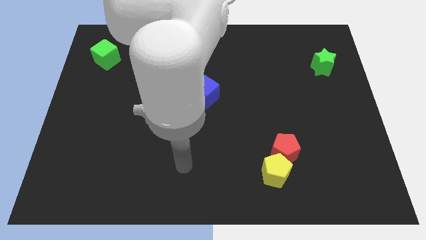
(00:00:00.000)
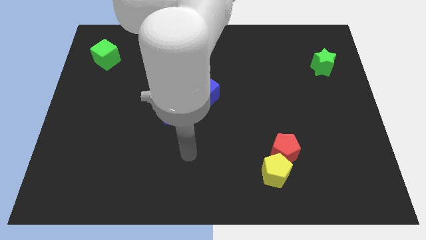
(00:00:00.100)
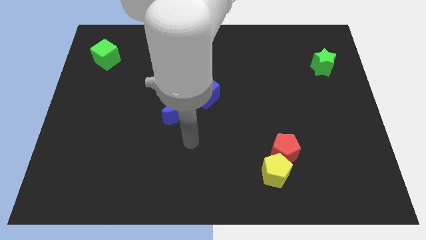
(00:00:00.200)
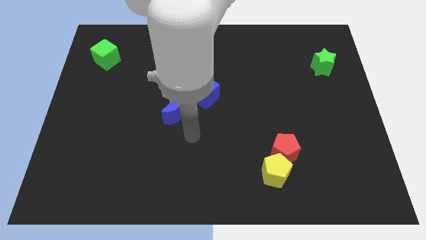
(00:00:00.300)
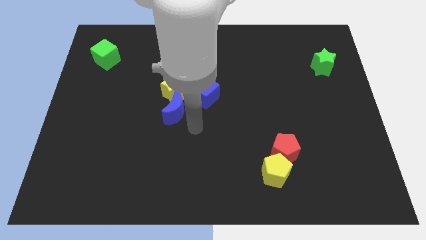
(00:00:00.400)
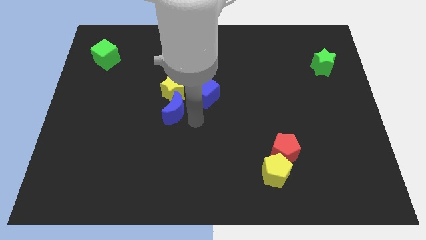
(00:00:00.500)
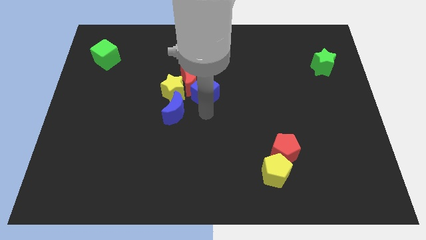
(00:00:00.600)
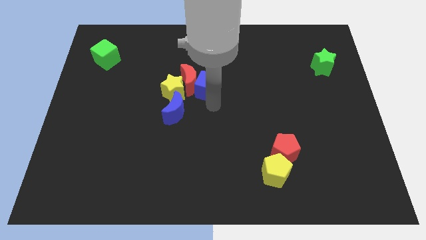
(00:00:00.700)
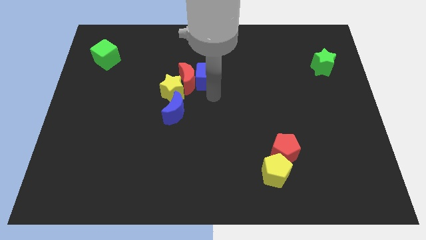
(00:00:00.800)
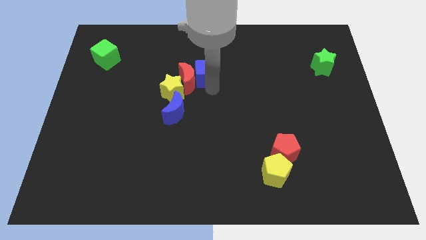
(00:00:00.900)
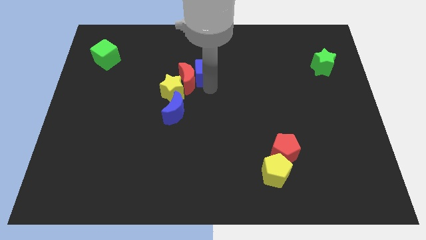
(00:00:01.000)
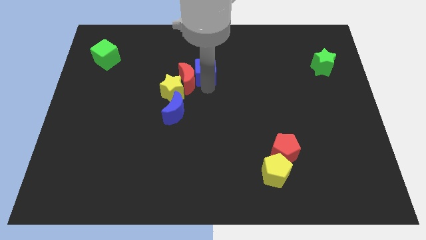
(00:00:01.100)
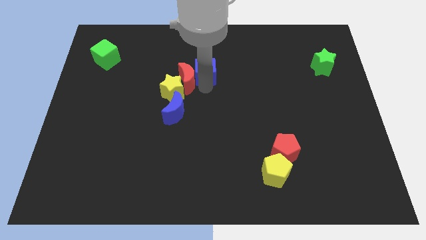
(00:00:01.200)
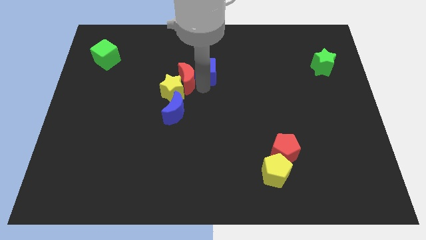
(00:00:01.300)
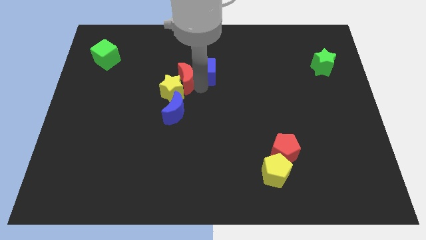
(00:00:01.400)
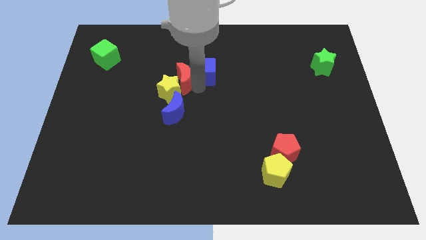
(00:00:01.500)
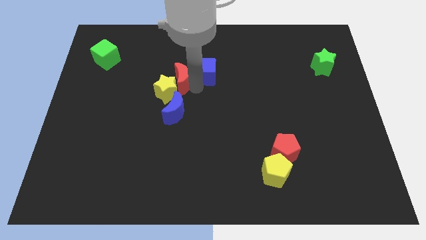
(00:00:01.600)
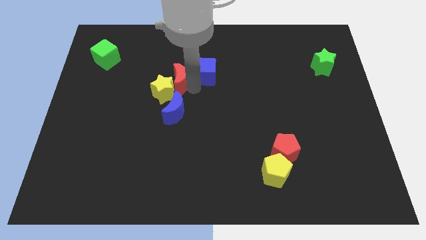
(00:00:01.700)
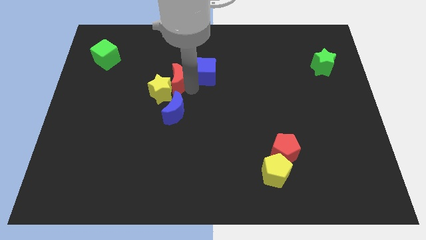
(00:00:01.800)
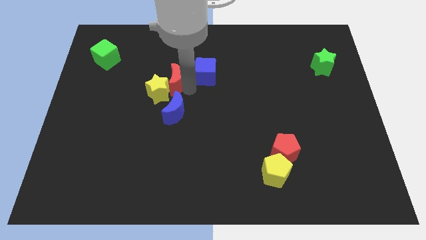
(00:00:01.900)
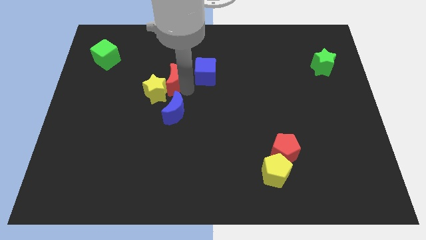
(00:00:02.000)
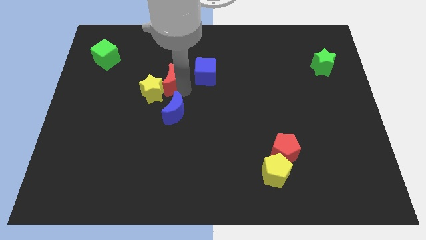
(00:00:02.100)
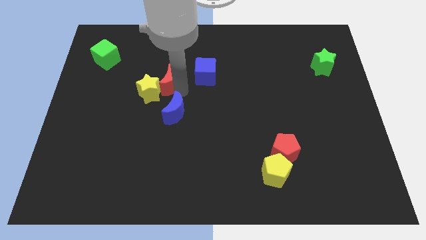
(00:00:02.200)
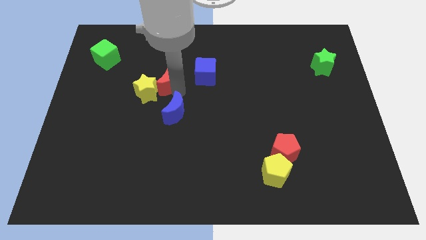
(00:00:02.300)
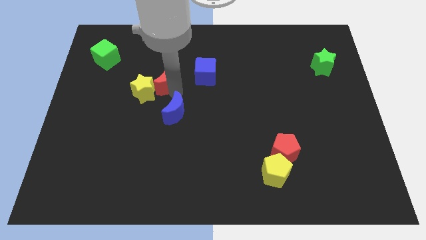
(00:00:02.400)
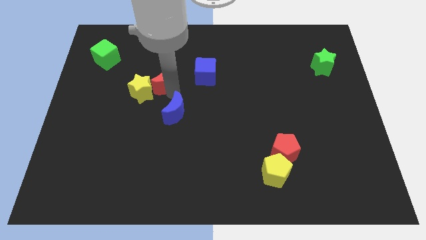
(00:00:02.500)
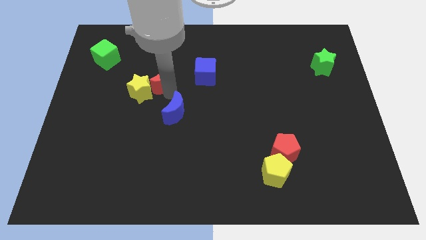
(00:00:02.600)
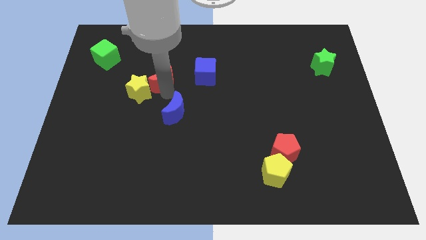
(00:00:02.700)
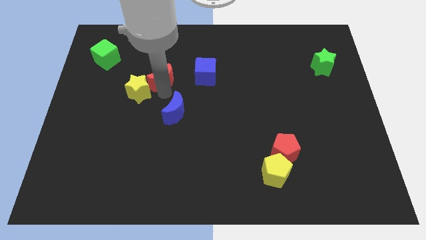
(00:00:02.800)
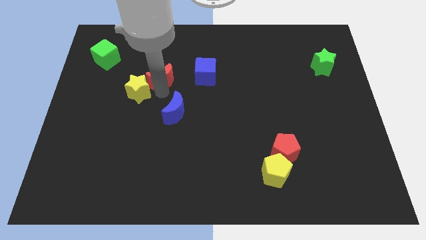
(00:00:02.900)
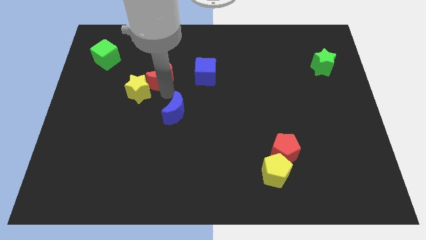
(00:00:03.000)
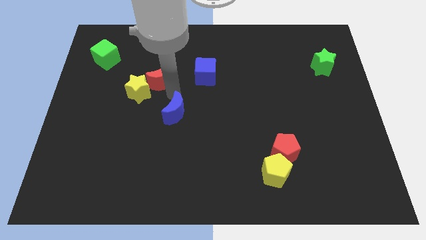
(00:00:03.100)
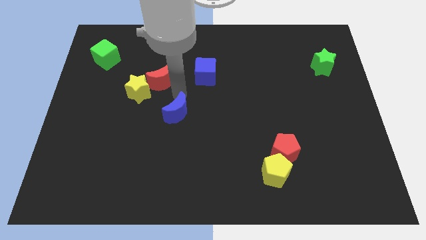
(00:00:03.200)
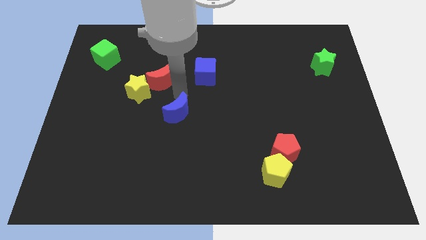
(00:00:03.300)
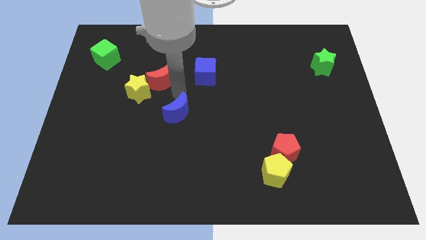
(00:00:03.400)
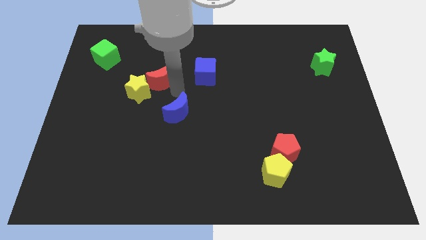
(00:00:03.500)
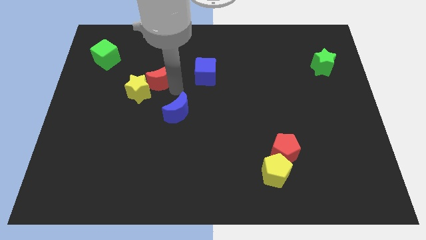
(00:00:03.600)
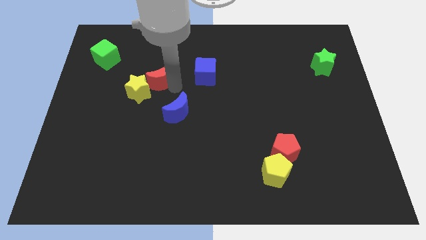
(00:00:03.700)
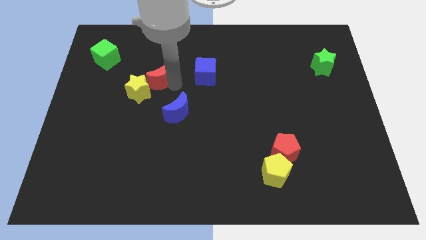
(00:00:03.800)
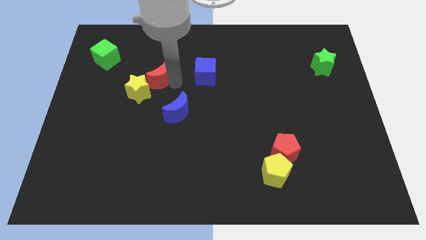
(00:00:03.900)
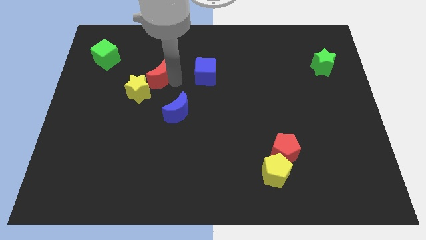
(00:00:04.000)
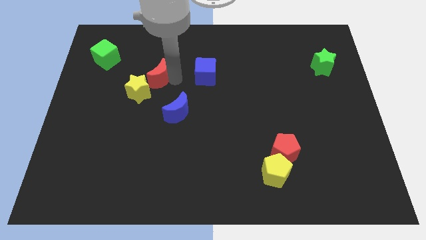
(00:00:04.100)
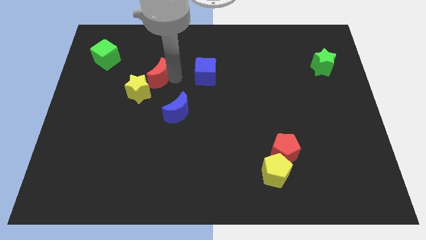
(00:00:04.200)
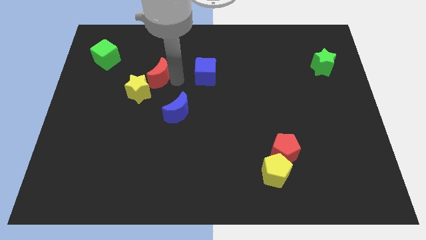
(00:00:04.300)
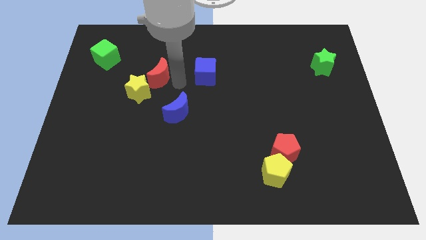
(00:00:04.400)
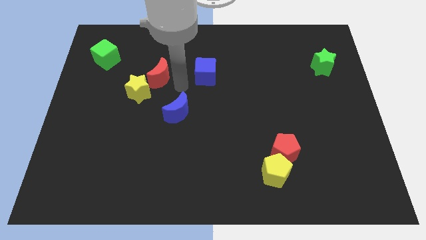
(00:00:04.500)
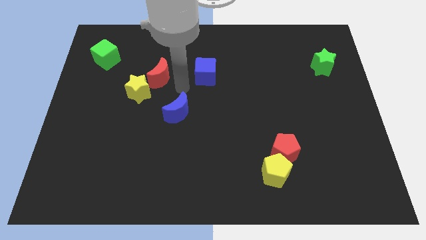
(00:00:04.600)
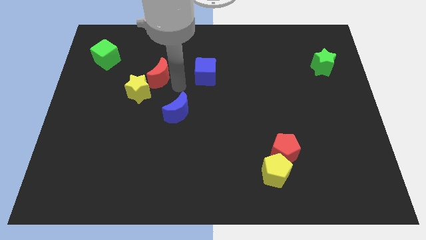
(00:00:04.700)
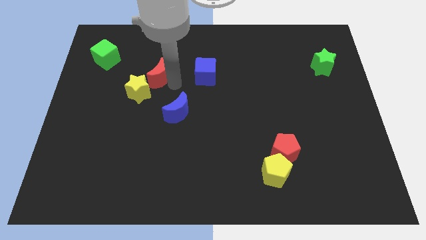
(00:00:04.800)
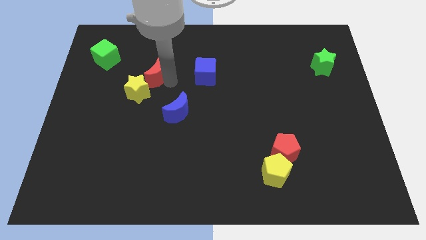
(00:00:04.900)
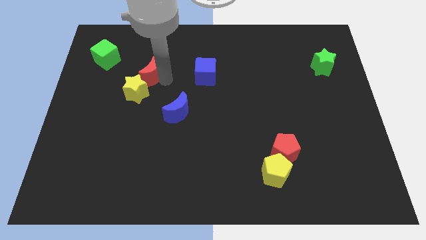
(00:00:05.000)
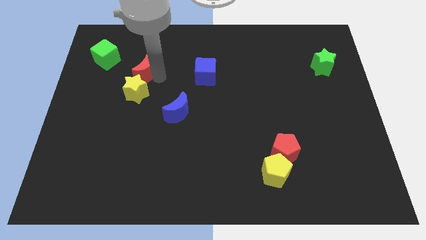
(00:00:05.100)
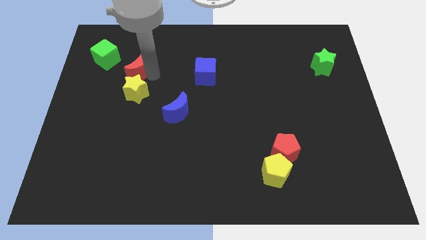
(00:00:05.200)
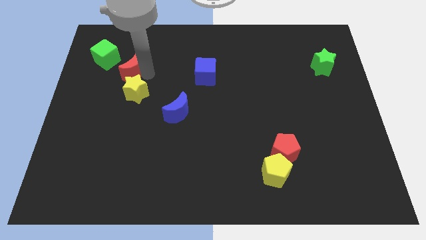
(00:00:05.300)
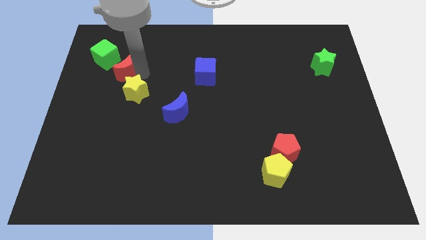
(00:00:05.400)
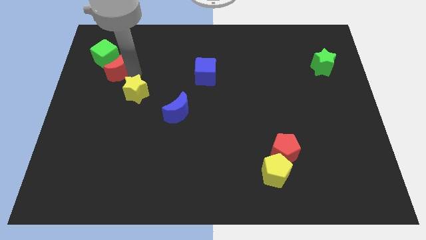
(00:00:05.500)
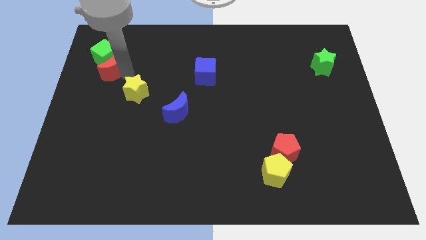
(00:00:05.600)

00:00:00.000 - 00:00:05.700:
push the red moon next to the green cube

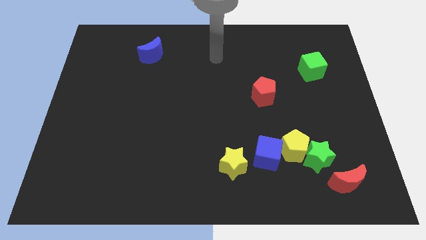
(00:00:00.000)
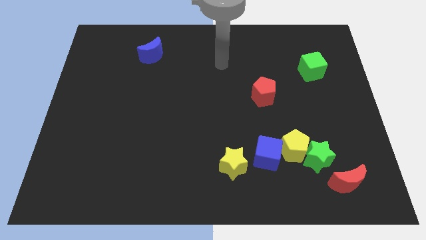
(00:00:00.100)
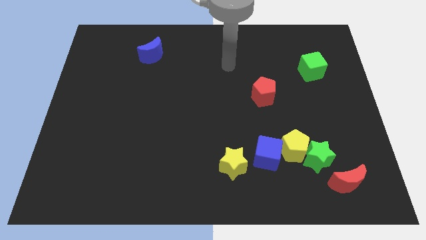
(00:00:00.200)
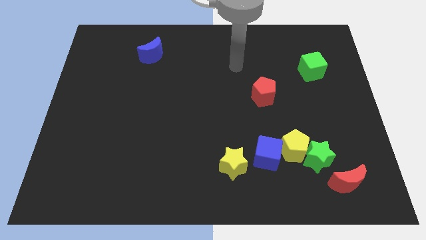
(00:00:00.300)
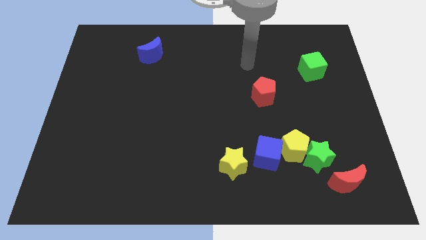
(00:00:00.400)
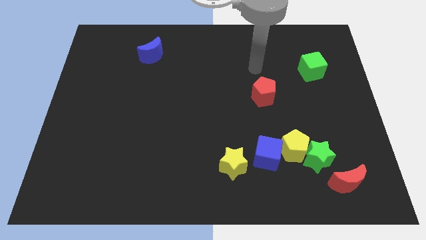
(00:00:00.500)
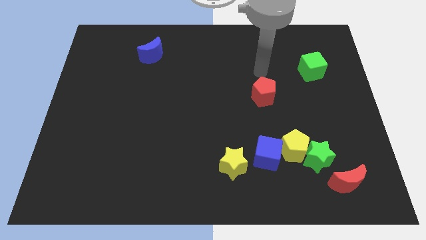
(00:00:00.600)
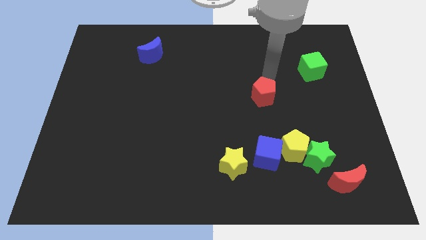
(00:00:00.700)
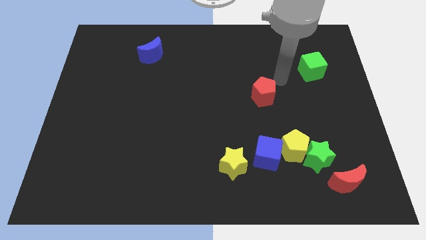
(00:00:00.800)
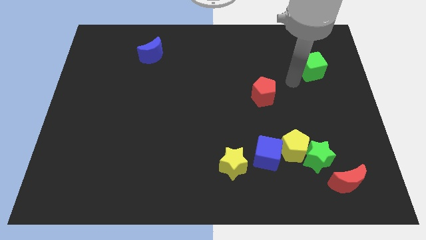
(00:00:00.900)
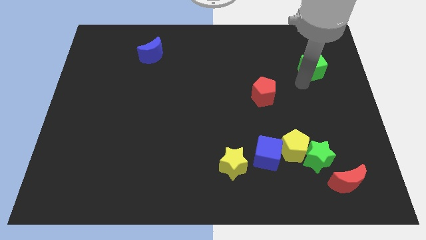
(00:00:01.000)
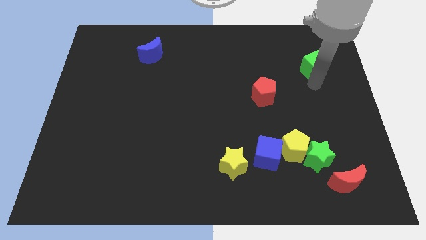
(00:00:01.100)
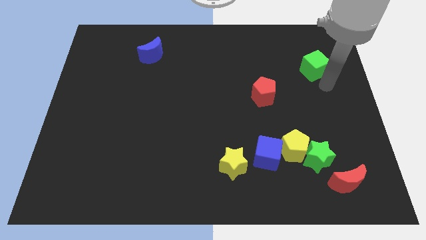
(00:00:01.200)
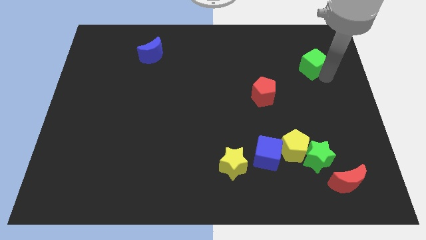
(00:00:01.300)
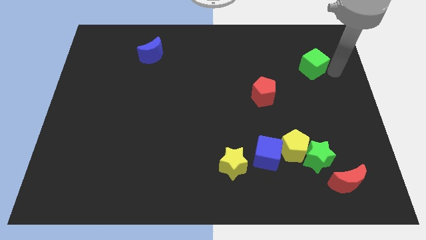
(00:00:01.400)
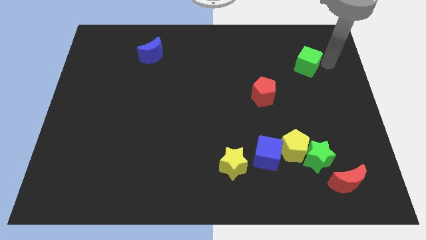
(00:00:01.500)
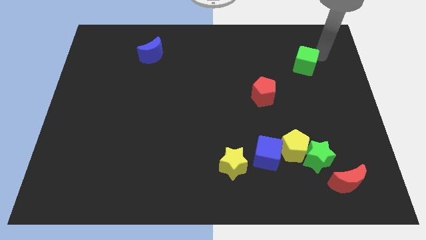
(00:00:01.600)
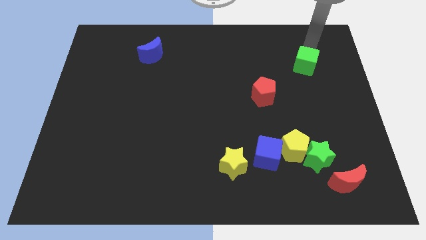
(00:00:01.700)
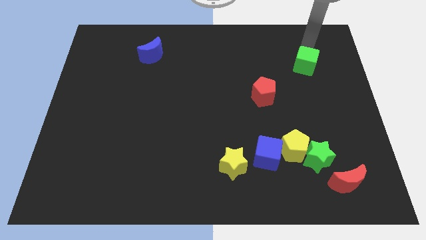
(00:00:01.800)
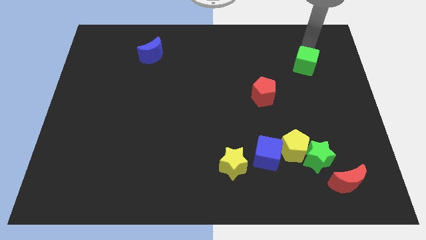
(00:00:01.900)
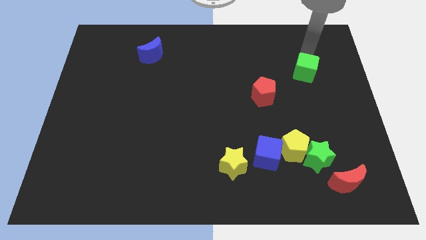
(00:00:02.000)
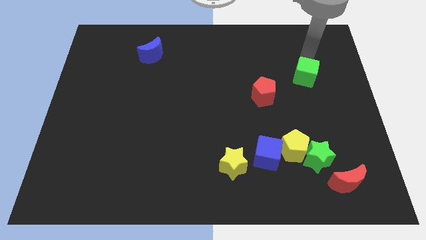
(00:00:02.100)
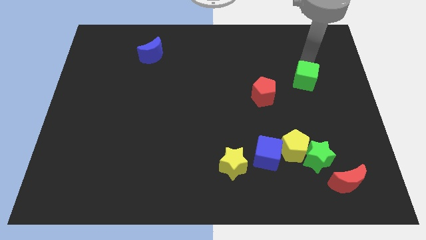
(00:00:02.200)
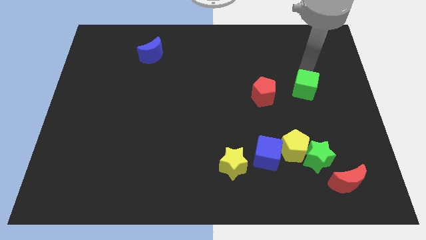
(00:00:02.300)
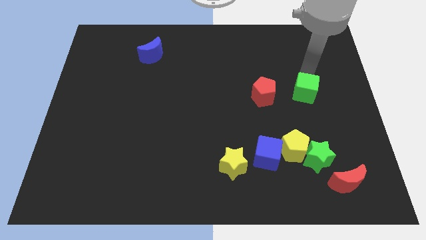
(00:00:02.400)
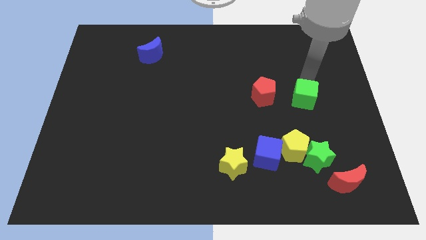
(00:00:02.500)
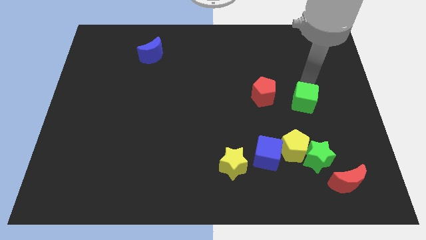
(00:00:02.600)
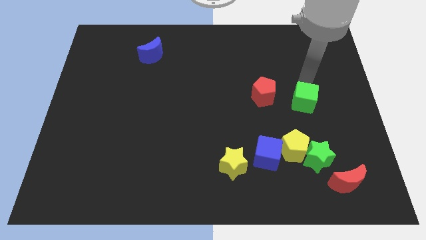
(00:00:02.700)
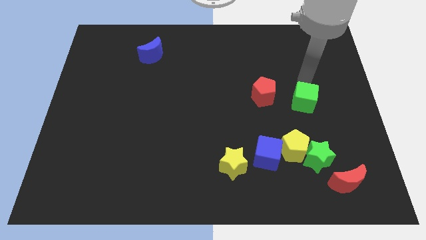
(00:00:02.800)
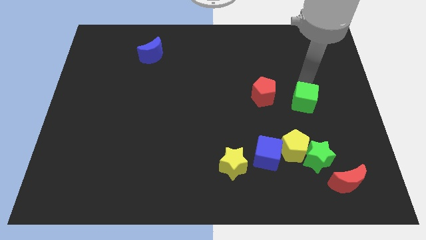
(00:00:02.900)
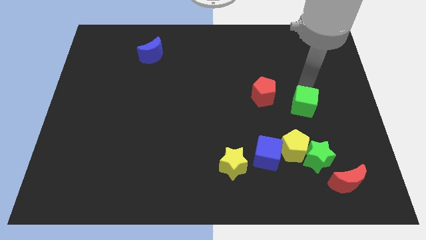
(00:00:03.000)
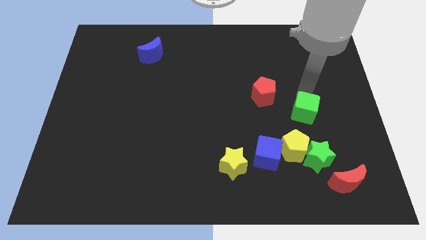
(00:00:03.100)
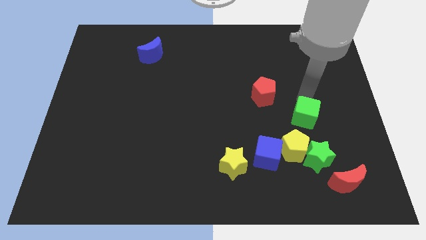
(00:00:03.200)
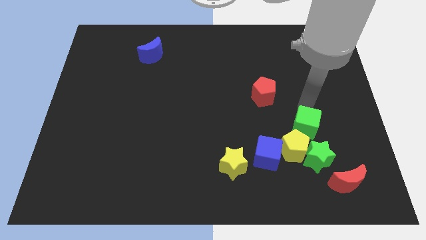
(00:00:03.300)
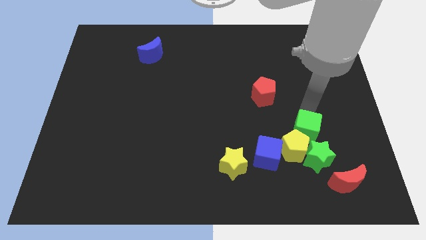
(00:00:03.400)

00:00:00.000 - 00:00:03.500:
move the green cube to the yellow pentagon
